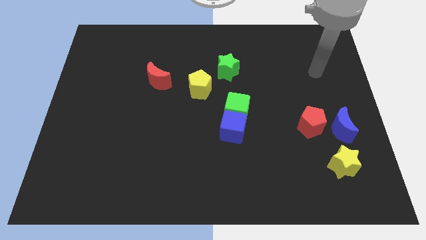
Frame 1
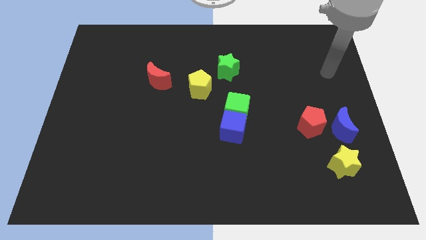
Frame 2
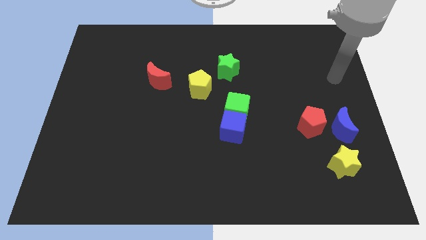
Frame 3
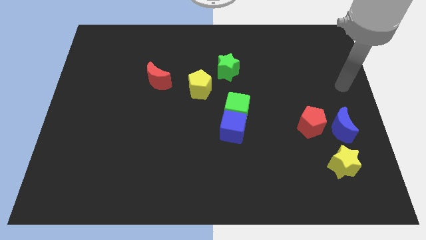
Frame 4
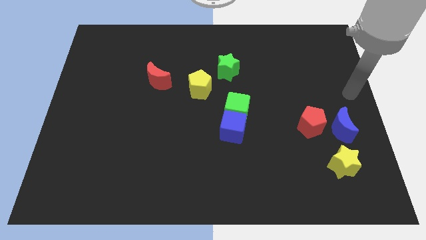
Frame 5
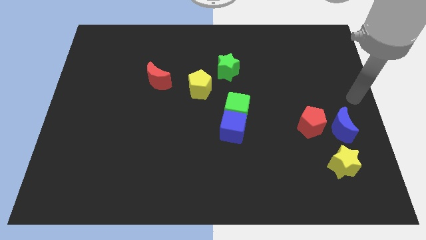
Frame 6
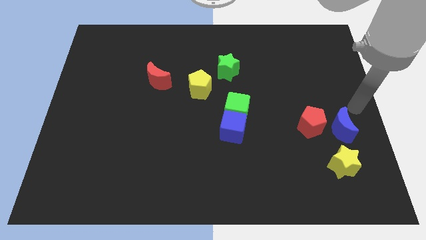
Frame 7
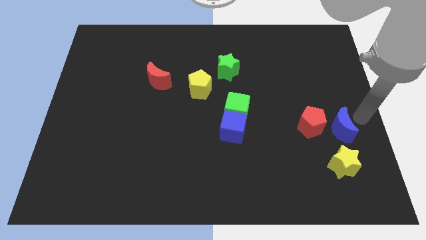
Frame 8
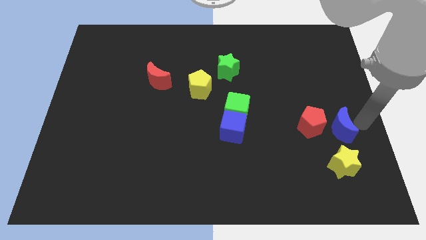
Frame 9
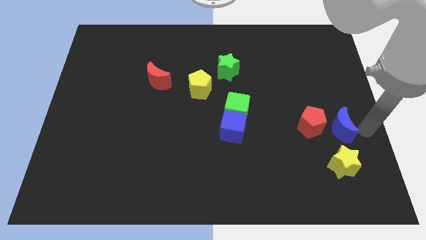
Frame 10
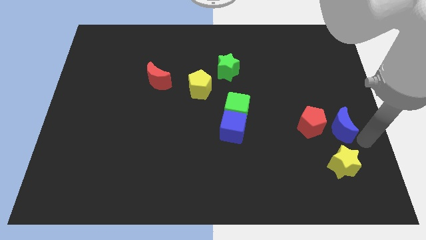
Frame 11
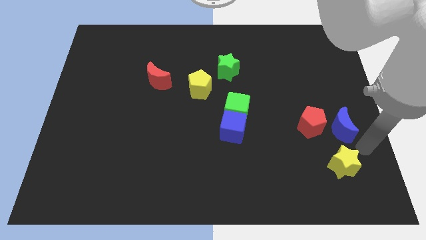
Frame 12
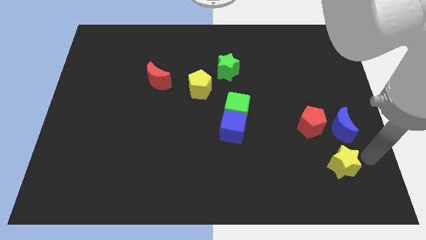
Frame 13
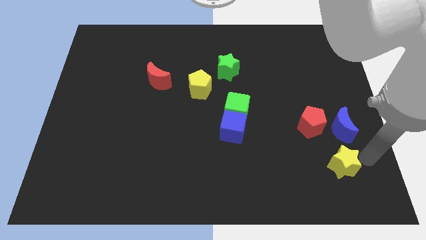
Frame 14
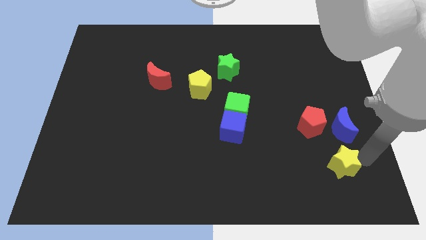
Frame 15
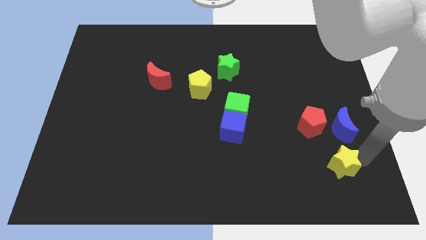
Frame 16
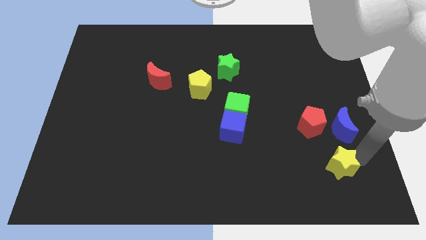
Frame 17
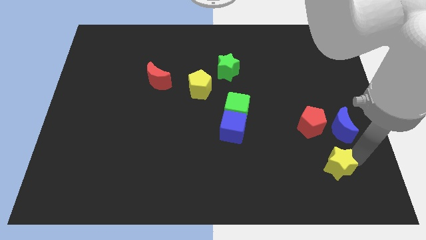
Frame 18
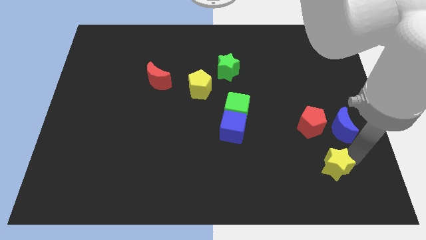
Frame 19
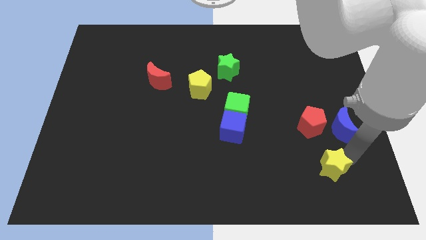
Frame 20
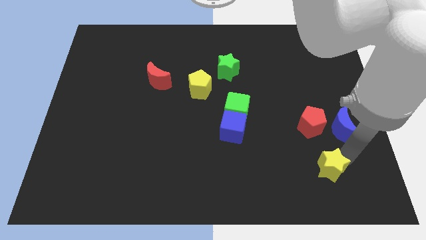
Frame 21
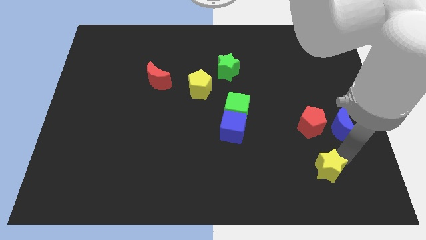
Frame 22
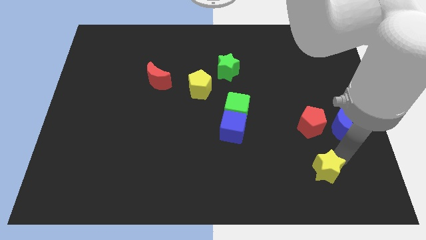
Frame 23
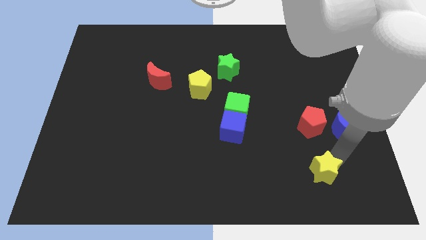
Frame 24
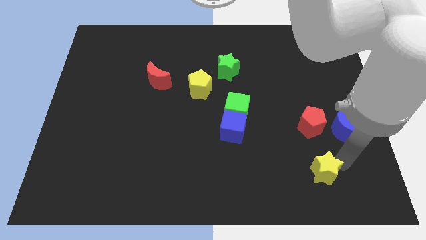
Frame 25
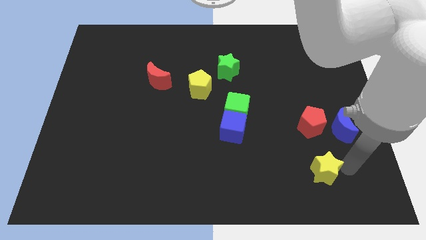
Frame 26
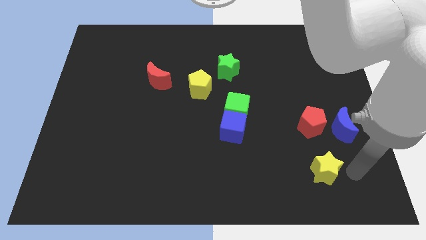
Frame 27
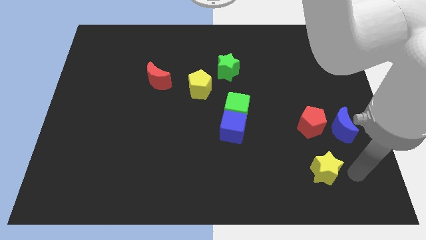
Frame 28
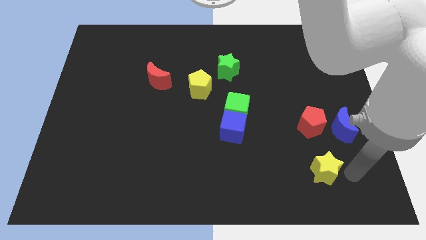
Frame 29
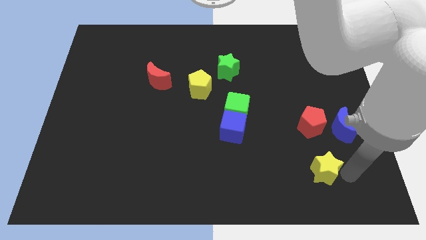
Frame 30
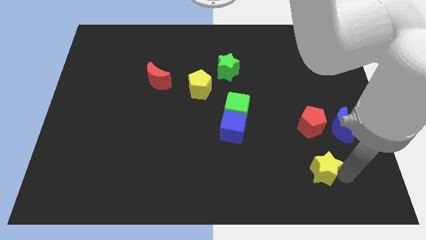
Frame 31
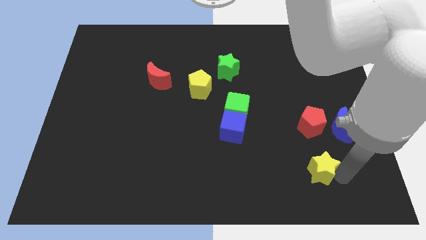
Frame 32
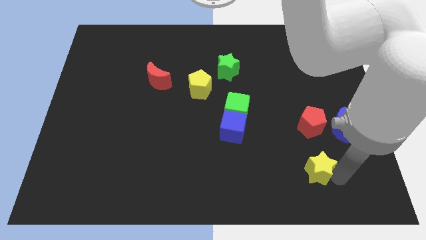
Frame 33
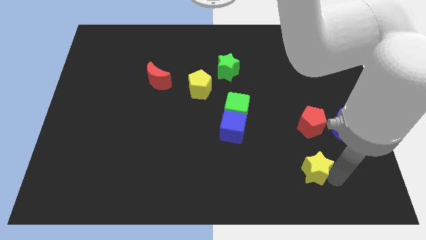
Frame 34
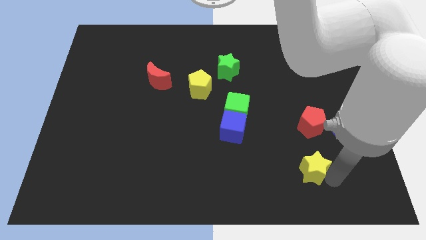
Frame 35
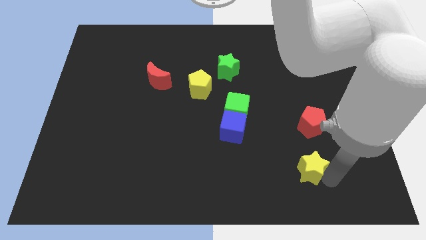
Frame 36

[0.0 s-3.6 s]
slightly push the yellow star left

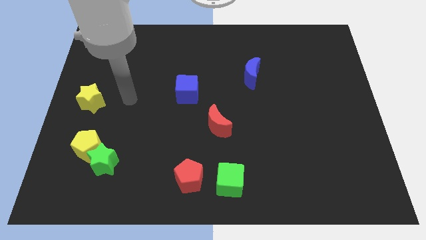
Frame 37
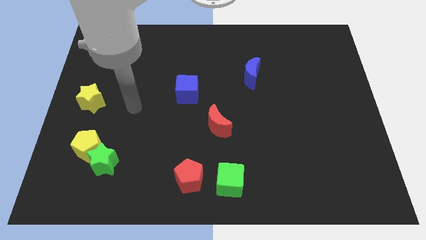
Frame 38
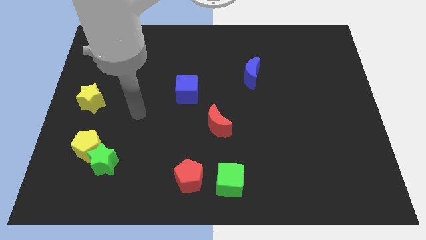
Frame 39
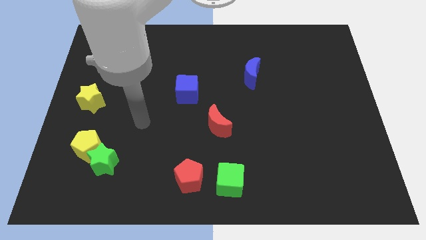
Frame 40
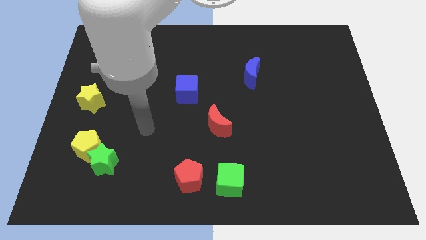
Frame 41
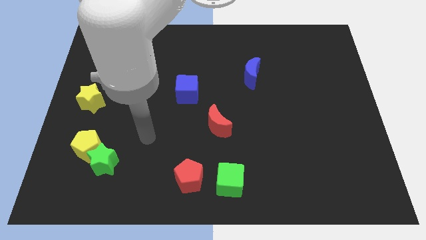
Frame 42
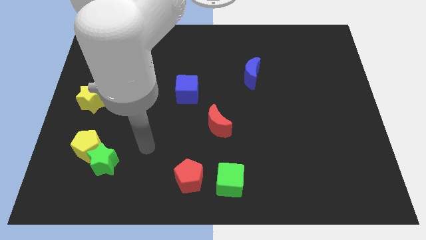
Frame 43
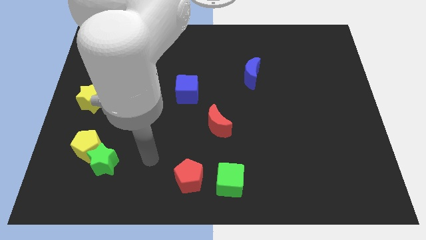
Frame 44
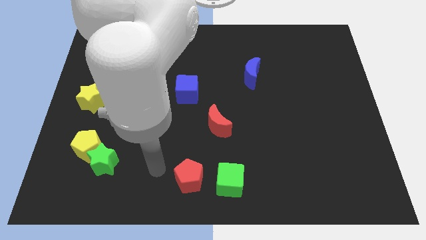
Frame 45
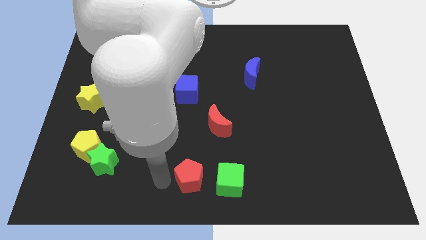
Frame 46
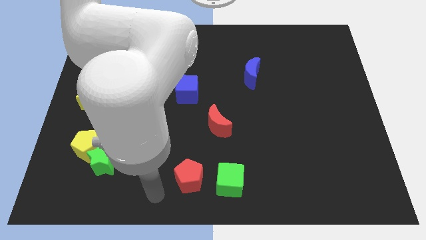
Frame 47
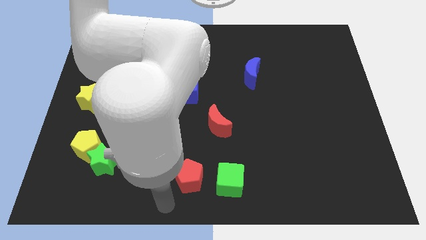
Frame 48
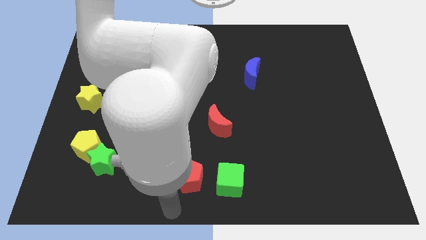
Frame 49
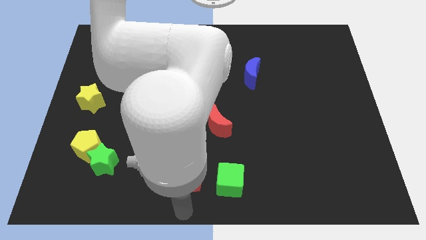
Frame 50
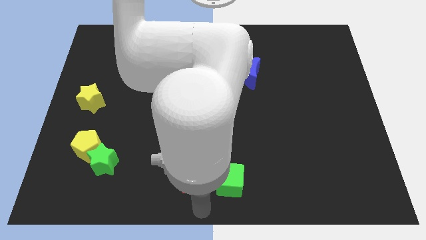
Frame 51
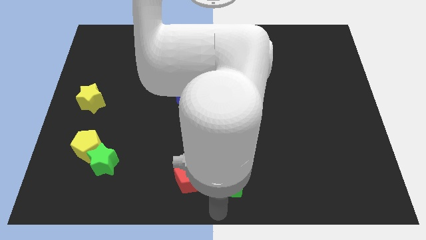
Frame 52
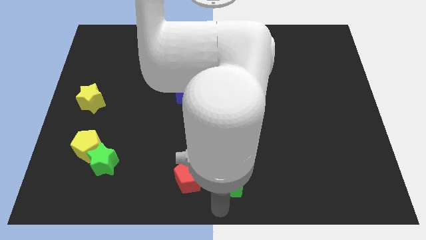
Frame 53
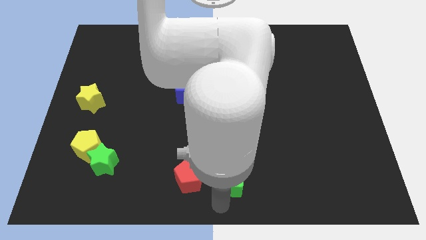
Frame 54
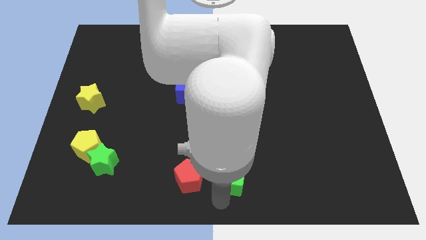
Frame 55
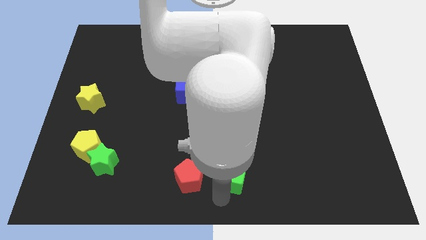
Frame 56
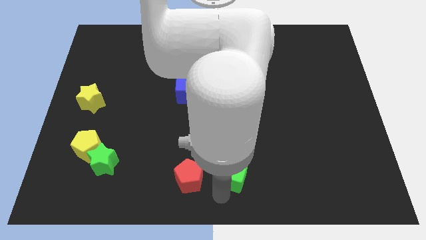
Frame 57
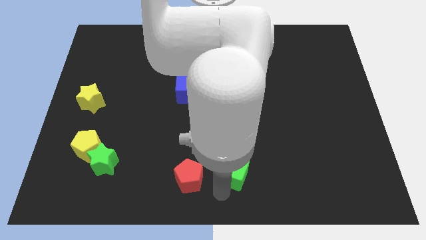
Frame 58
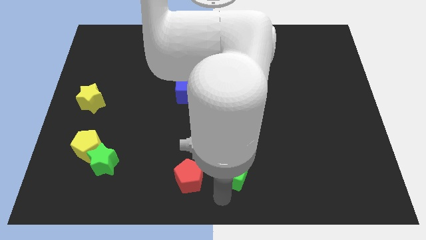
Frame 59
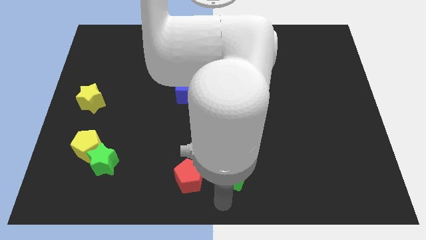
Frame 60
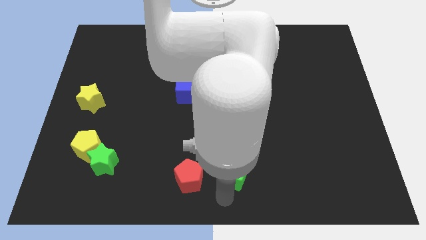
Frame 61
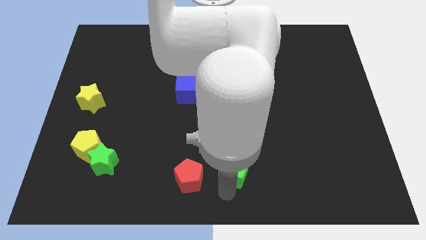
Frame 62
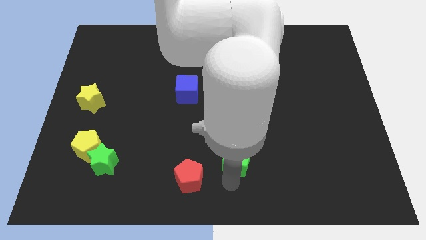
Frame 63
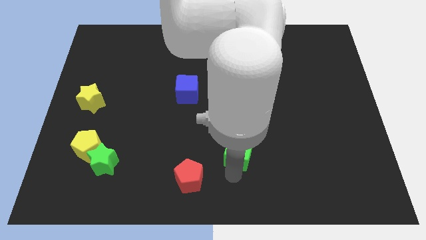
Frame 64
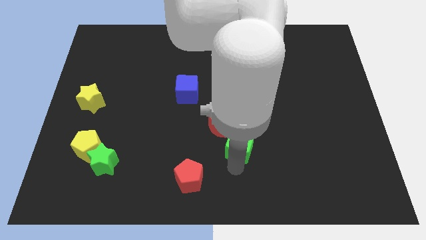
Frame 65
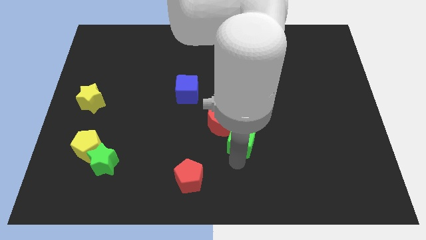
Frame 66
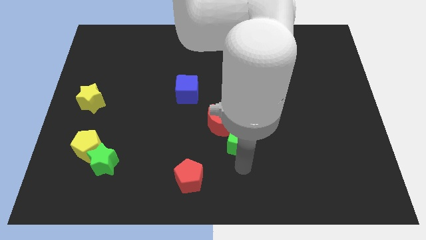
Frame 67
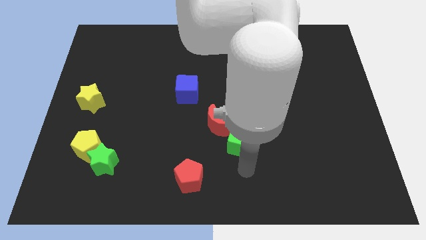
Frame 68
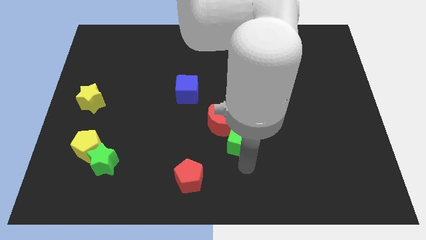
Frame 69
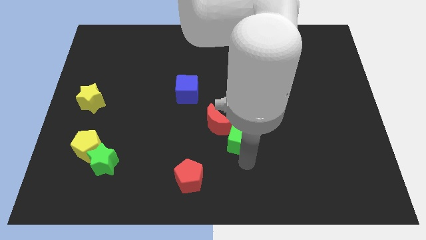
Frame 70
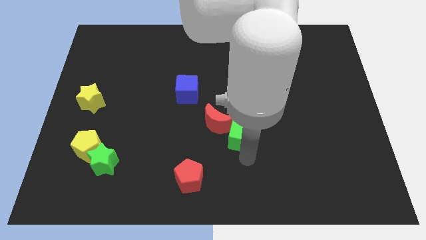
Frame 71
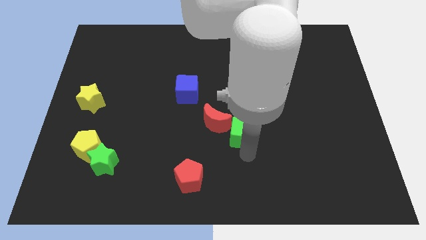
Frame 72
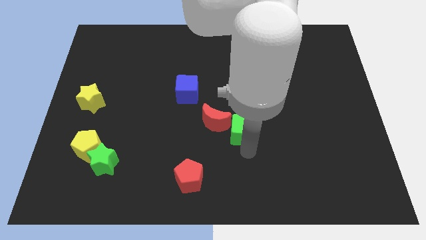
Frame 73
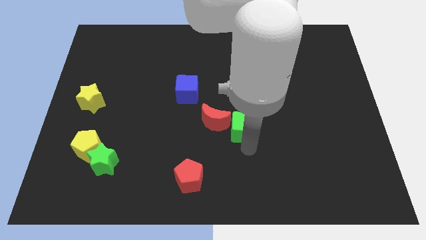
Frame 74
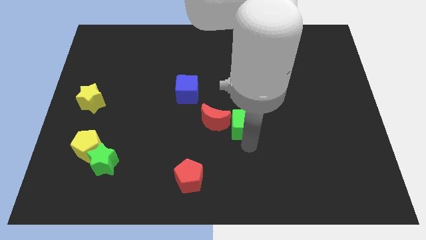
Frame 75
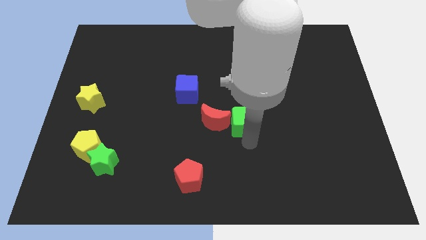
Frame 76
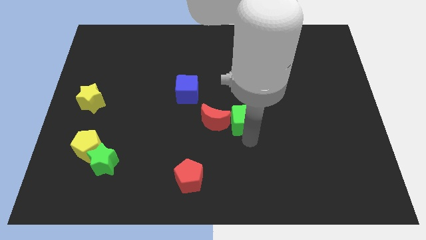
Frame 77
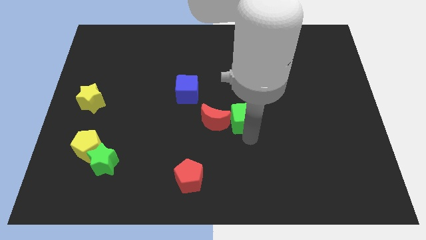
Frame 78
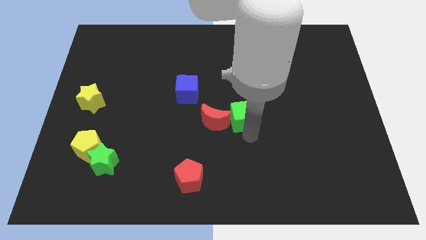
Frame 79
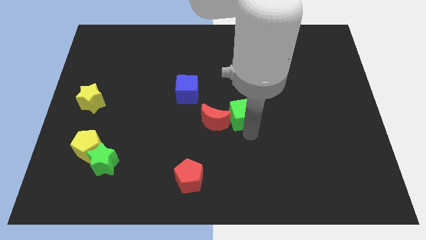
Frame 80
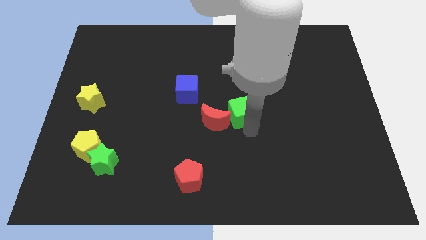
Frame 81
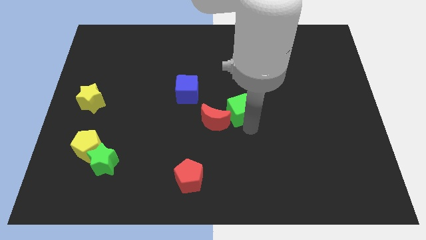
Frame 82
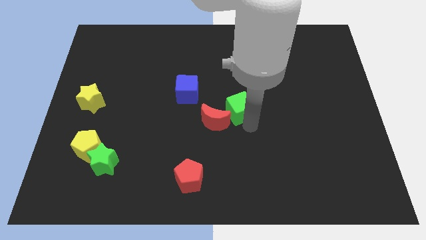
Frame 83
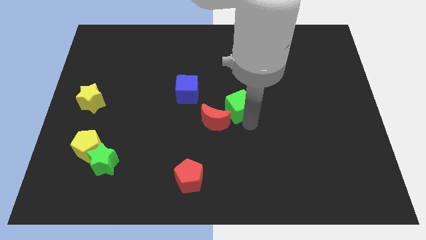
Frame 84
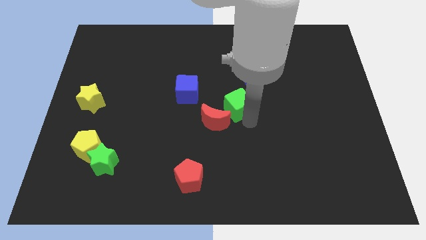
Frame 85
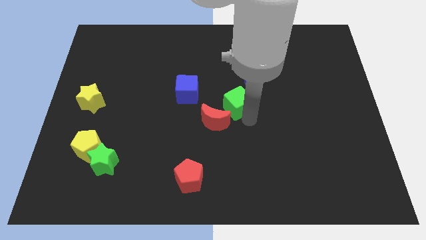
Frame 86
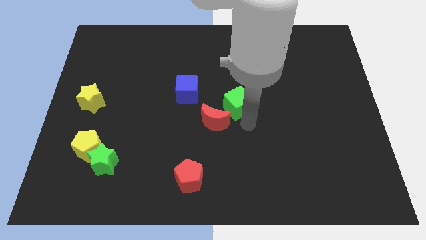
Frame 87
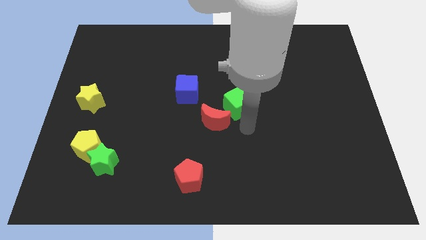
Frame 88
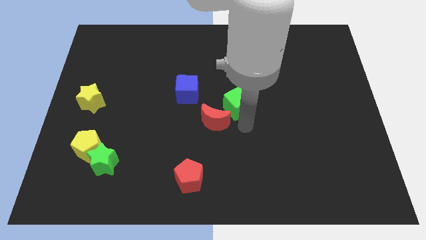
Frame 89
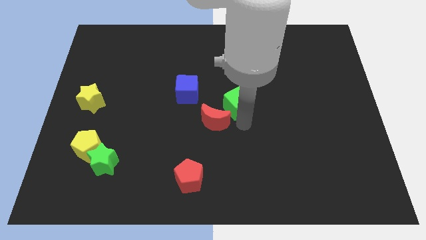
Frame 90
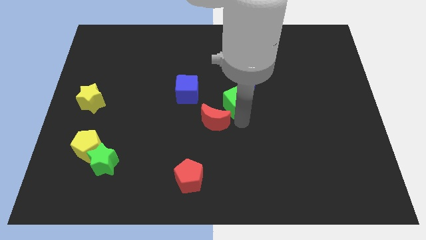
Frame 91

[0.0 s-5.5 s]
slide the green cube upwards
